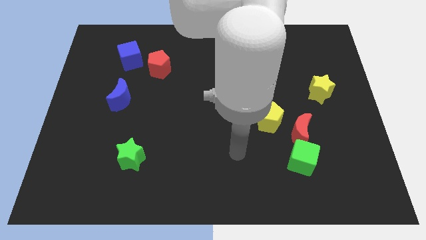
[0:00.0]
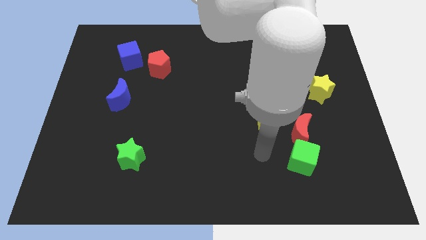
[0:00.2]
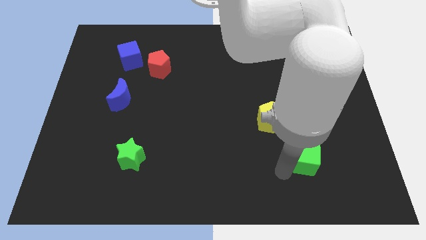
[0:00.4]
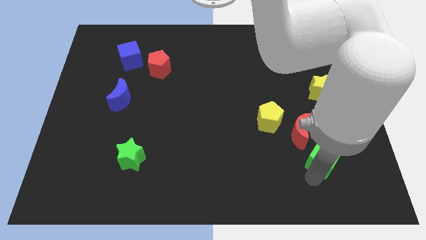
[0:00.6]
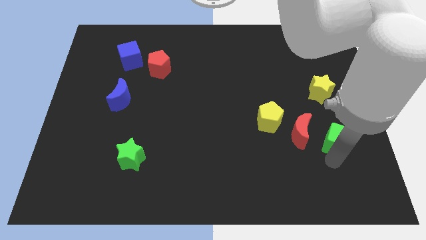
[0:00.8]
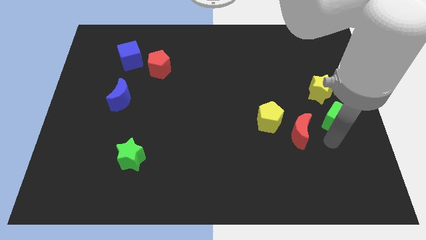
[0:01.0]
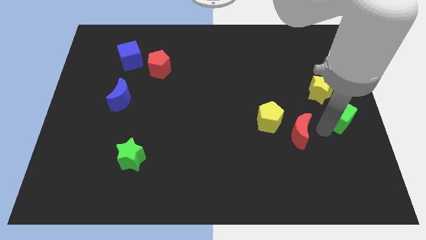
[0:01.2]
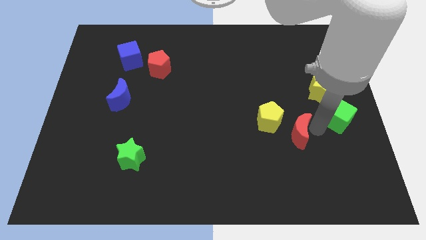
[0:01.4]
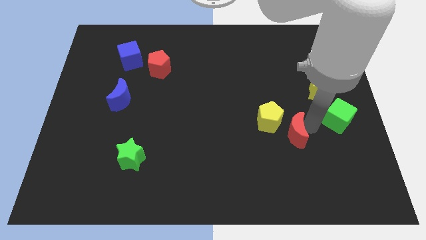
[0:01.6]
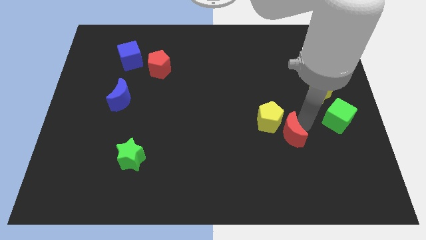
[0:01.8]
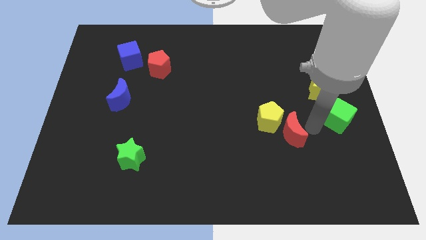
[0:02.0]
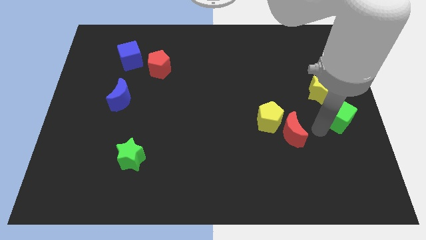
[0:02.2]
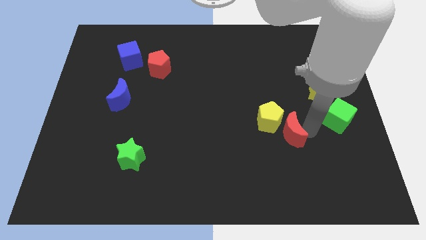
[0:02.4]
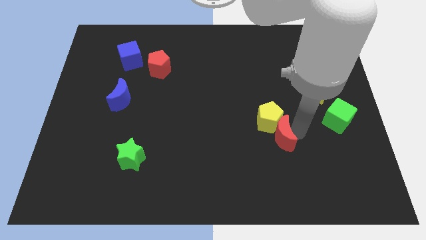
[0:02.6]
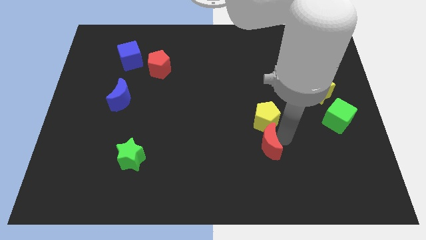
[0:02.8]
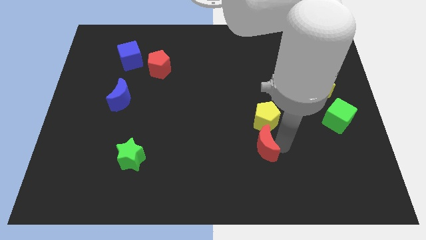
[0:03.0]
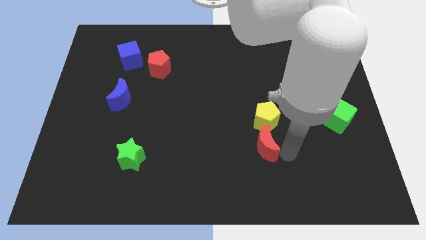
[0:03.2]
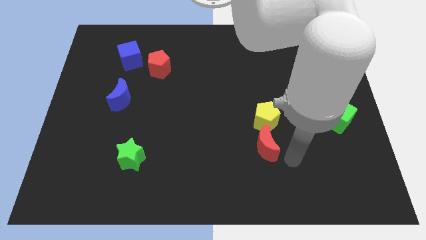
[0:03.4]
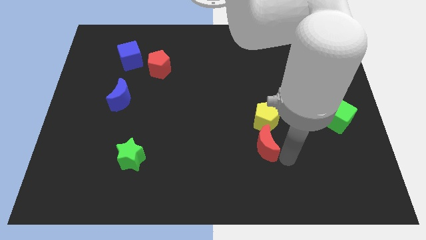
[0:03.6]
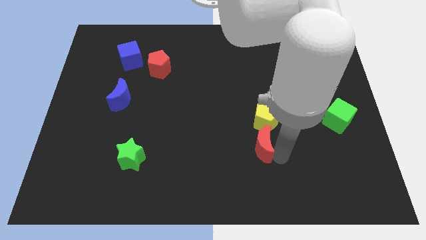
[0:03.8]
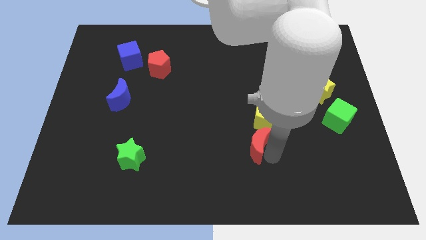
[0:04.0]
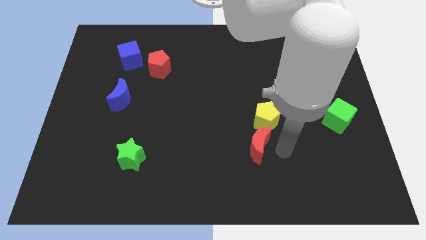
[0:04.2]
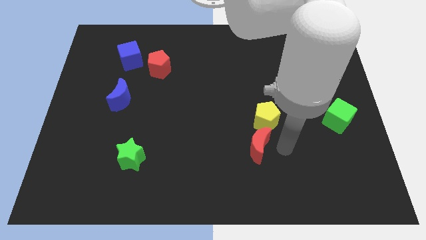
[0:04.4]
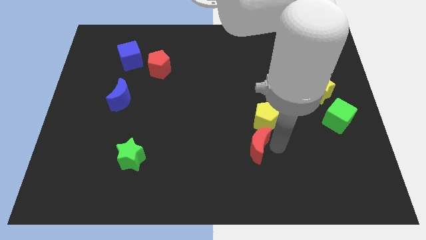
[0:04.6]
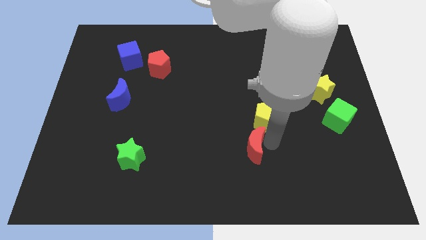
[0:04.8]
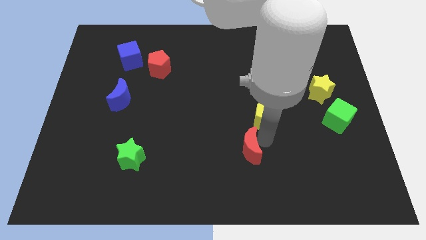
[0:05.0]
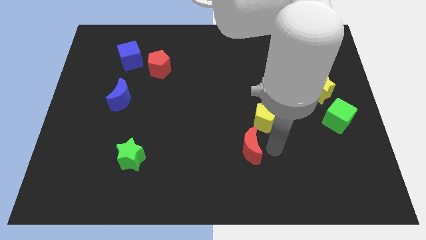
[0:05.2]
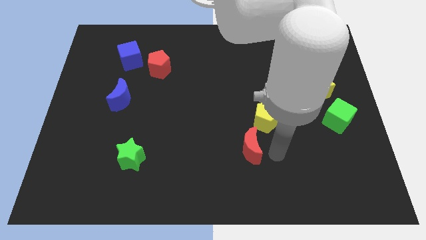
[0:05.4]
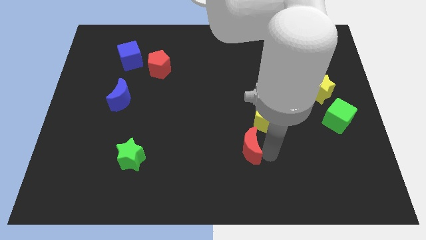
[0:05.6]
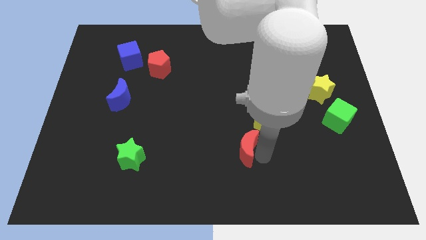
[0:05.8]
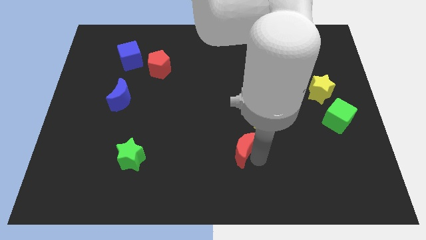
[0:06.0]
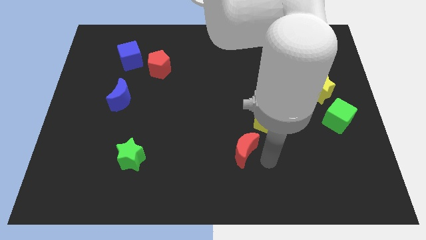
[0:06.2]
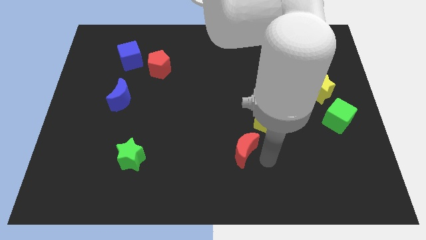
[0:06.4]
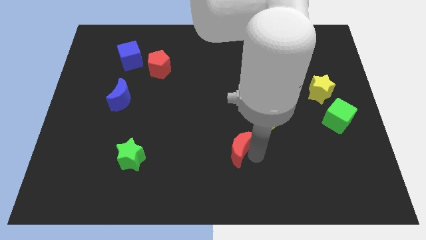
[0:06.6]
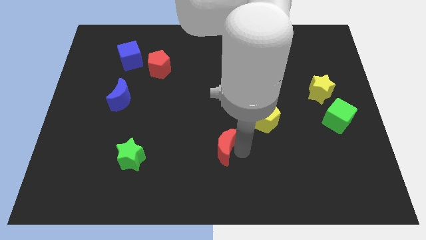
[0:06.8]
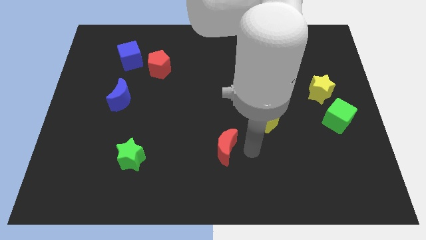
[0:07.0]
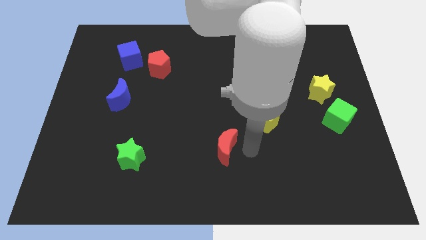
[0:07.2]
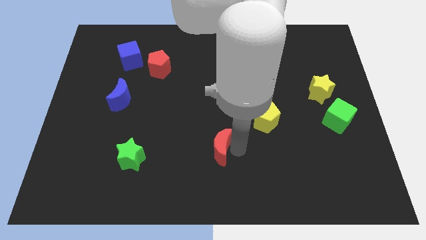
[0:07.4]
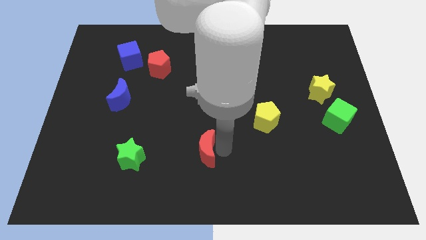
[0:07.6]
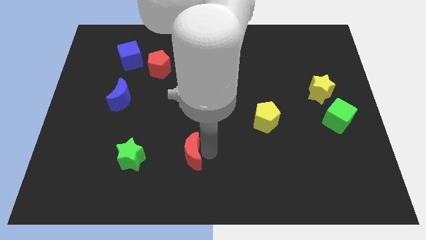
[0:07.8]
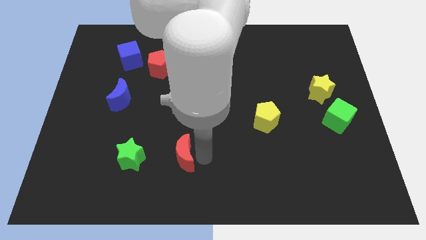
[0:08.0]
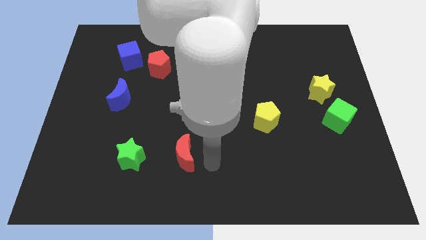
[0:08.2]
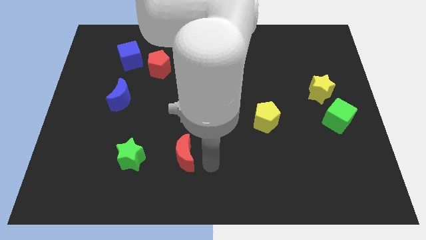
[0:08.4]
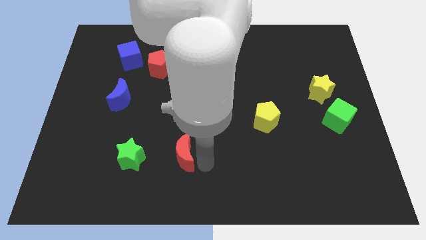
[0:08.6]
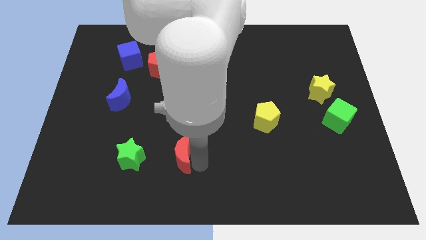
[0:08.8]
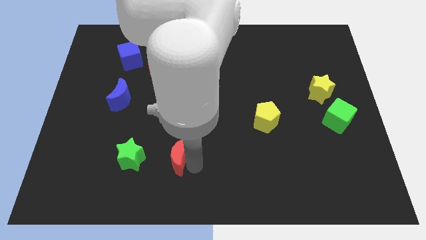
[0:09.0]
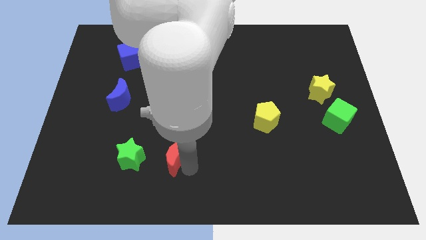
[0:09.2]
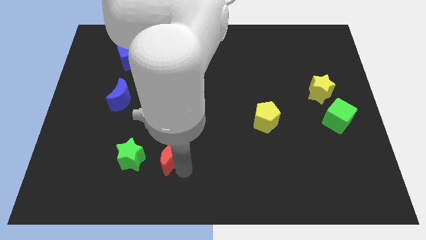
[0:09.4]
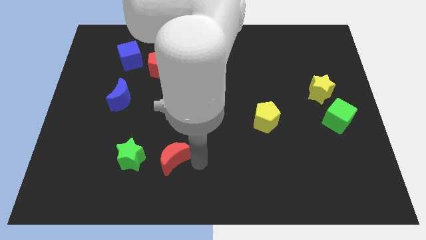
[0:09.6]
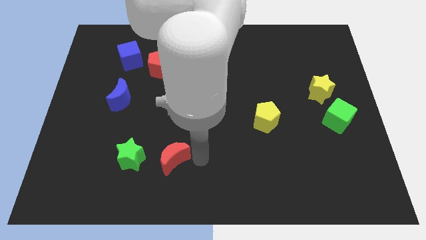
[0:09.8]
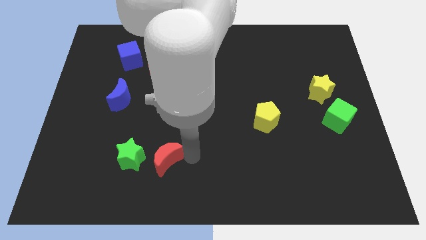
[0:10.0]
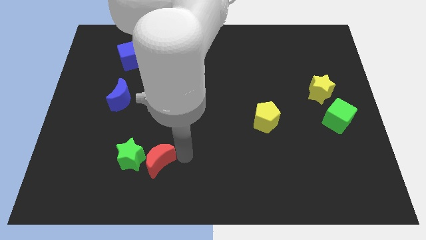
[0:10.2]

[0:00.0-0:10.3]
push the red moon towards the green star
